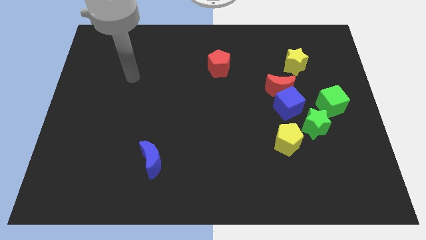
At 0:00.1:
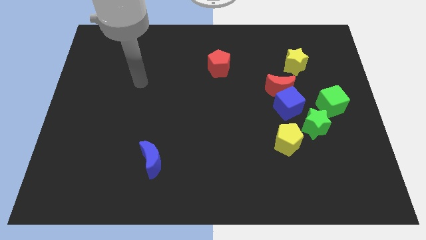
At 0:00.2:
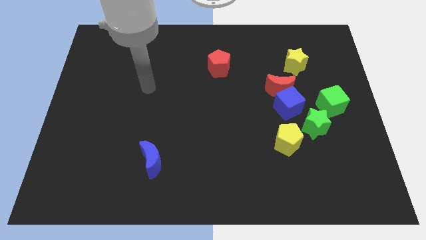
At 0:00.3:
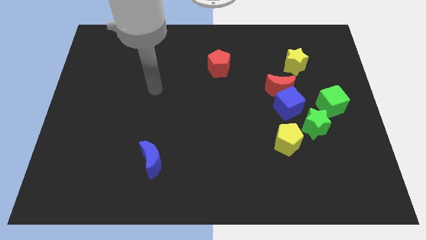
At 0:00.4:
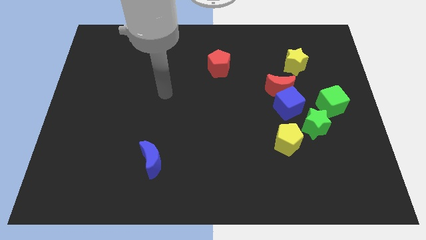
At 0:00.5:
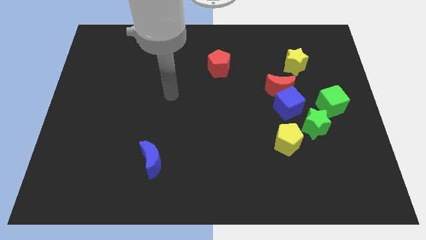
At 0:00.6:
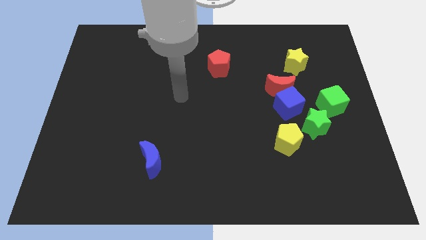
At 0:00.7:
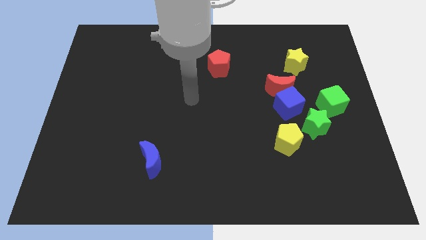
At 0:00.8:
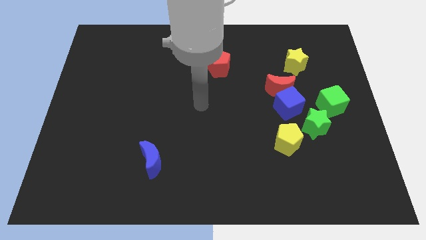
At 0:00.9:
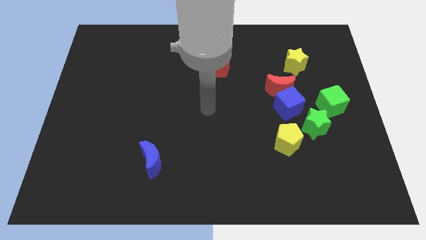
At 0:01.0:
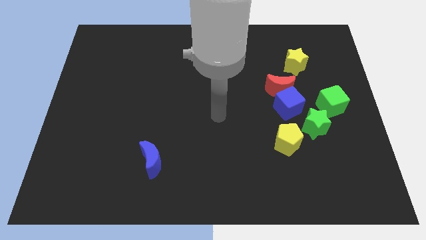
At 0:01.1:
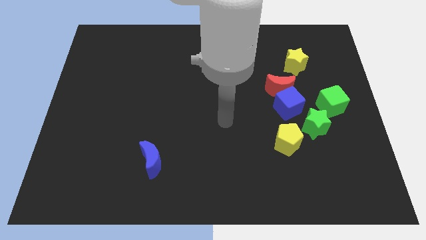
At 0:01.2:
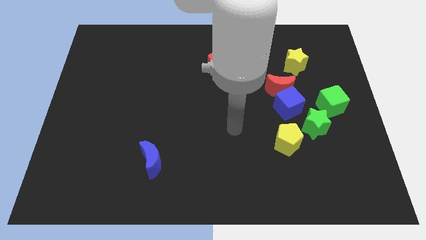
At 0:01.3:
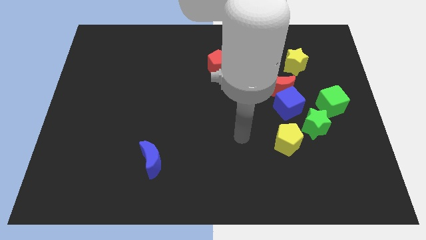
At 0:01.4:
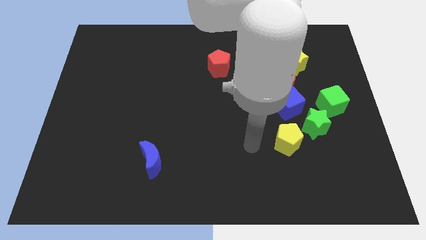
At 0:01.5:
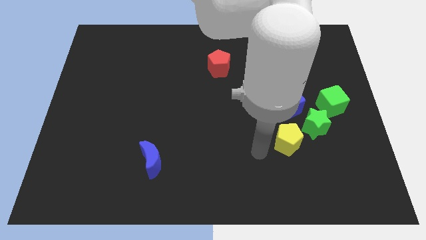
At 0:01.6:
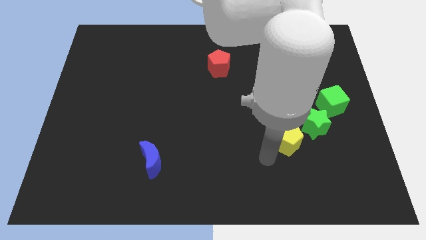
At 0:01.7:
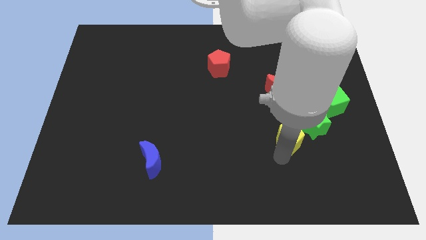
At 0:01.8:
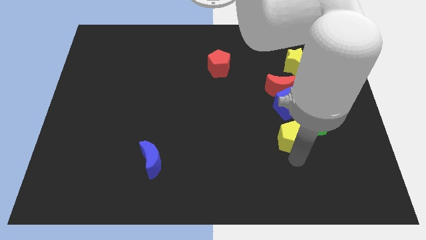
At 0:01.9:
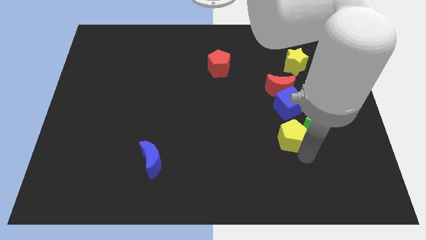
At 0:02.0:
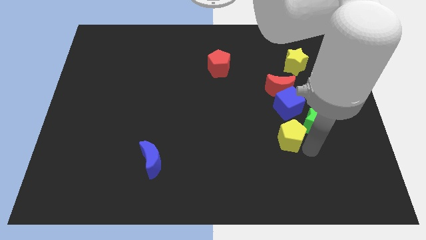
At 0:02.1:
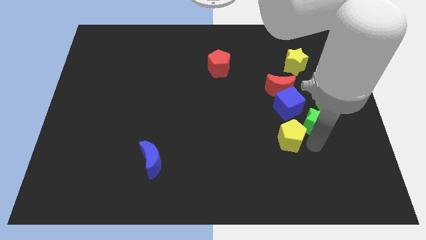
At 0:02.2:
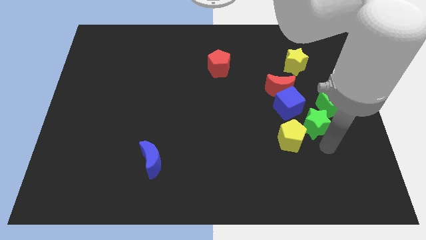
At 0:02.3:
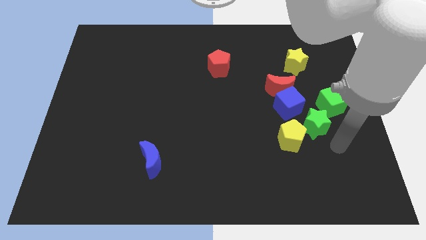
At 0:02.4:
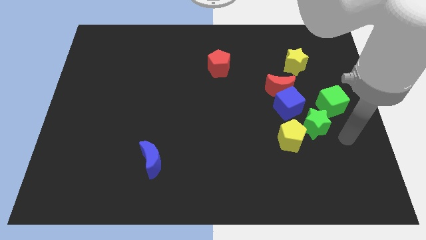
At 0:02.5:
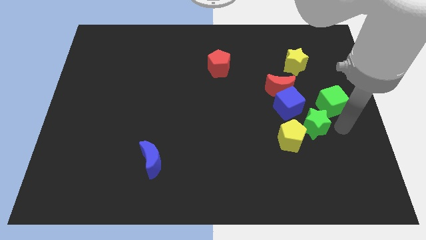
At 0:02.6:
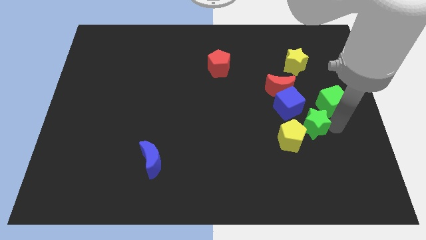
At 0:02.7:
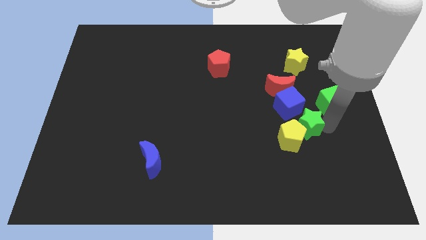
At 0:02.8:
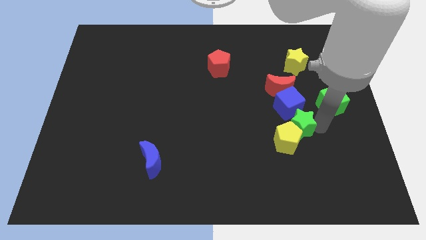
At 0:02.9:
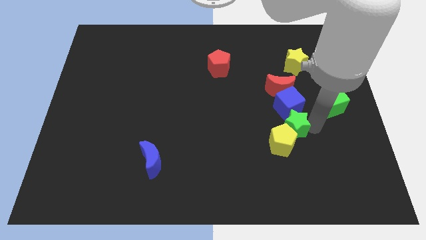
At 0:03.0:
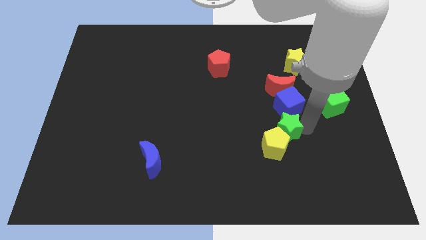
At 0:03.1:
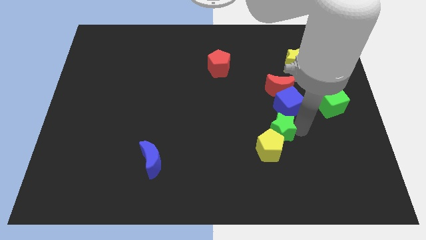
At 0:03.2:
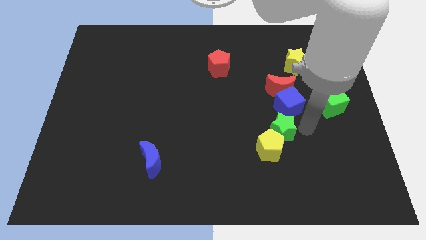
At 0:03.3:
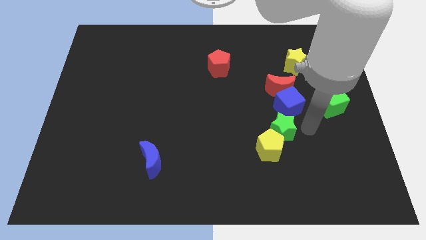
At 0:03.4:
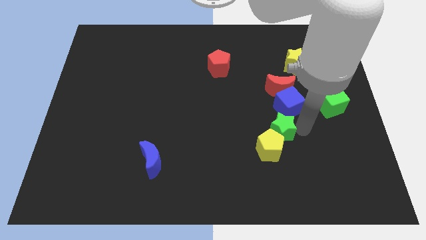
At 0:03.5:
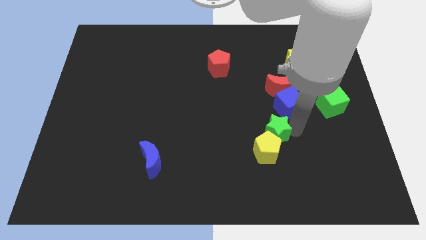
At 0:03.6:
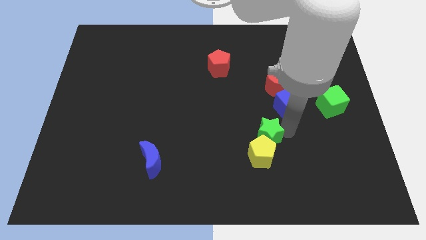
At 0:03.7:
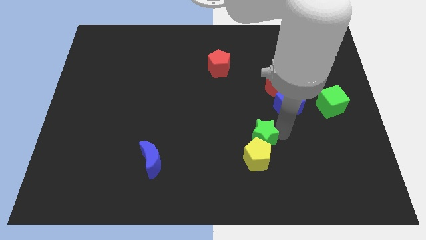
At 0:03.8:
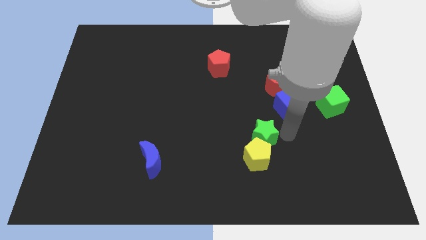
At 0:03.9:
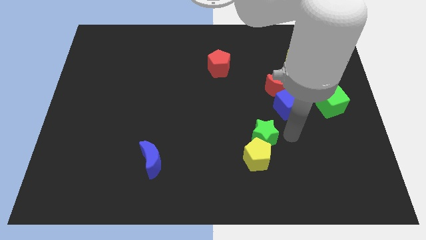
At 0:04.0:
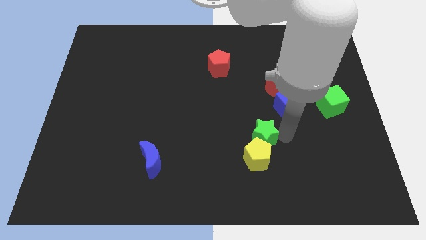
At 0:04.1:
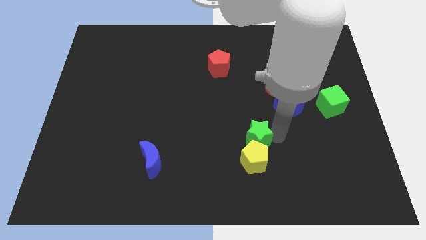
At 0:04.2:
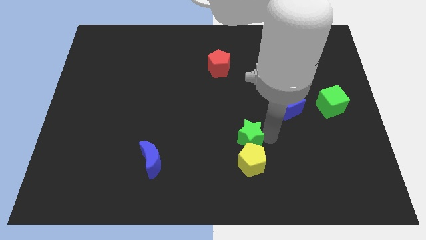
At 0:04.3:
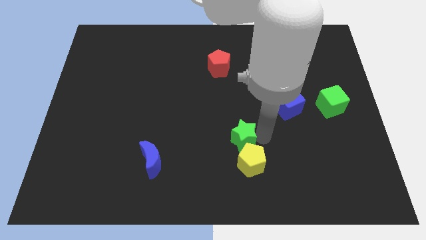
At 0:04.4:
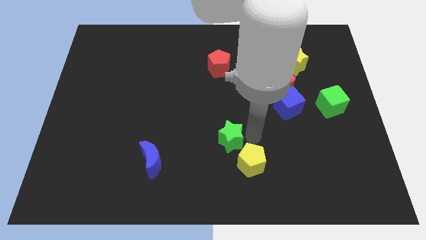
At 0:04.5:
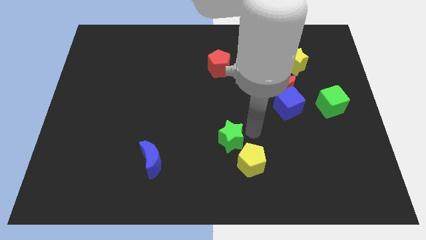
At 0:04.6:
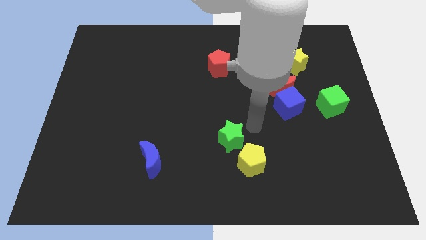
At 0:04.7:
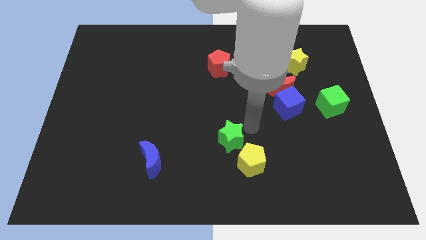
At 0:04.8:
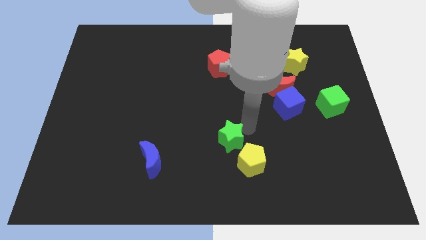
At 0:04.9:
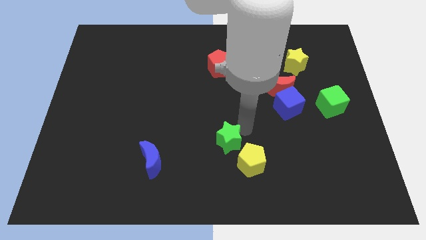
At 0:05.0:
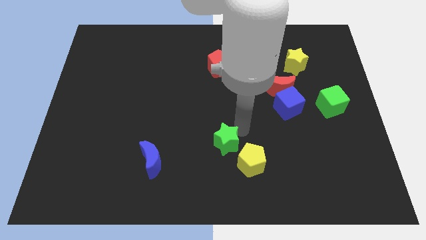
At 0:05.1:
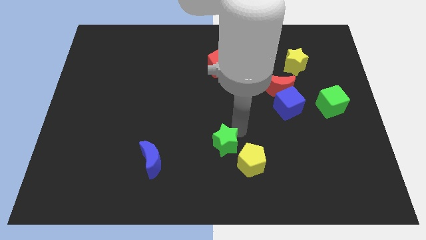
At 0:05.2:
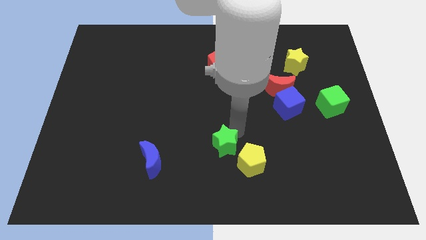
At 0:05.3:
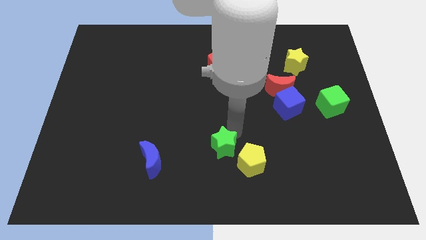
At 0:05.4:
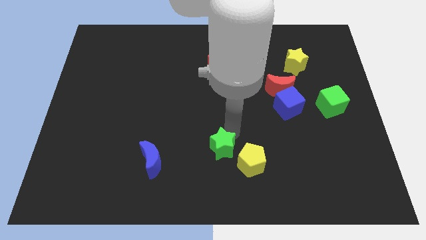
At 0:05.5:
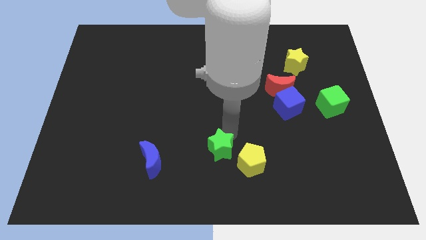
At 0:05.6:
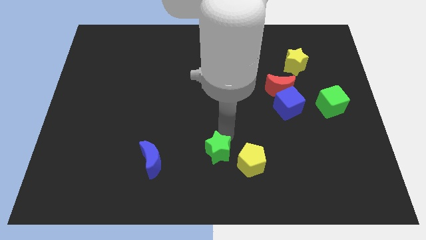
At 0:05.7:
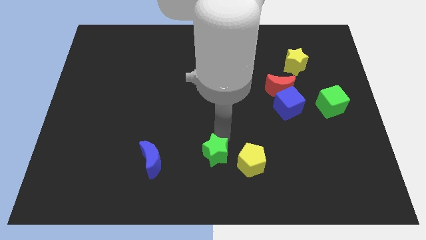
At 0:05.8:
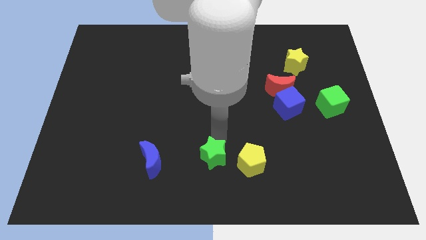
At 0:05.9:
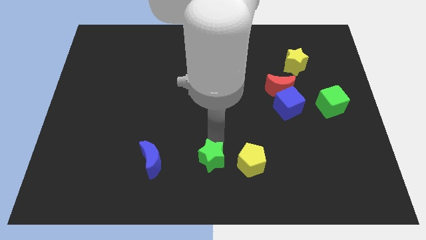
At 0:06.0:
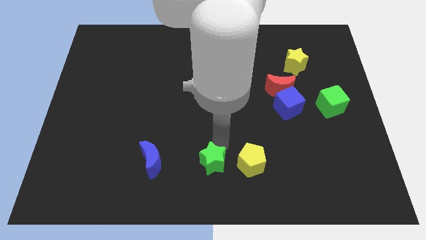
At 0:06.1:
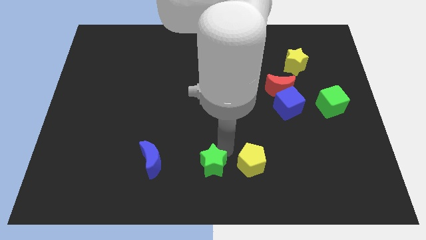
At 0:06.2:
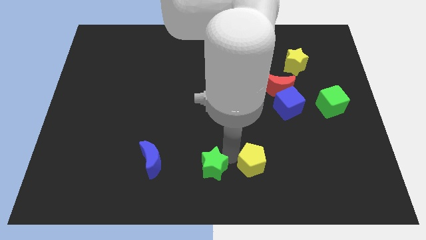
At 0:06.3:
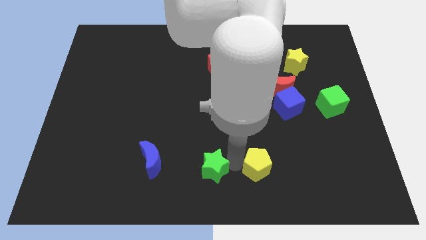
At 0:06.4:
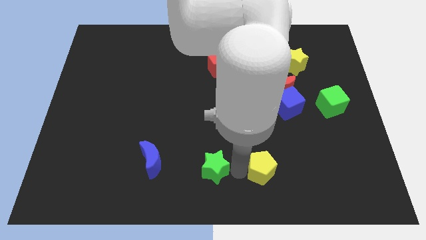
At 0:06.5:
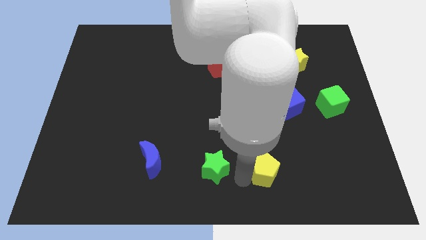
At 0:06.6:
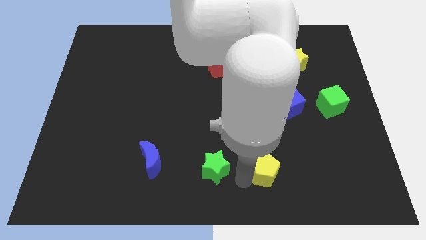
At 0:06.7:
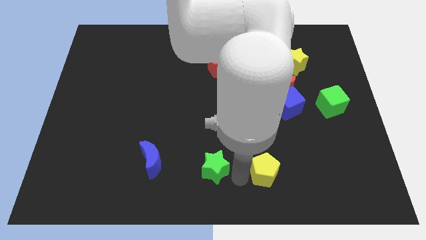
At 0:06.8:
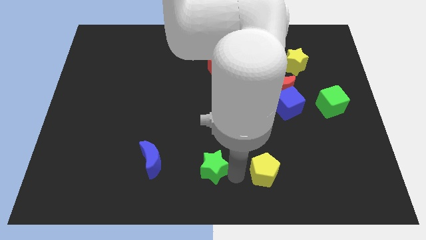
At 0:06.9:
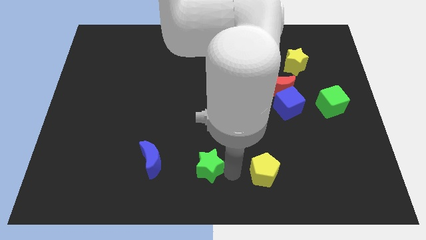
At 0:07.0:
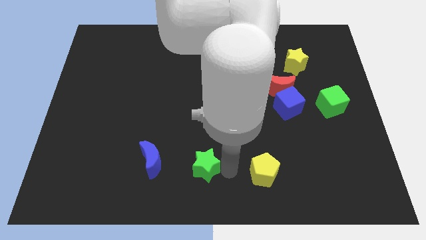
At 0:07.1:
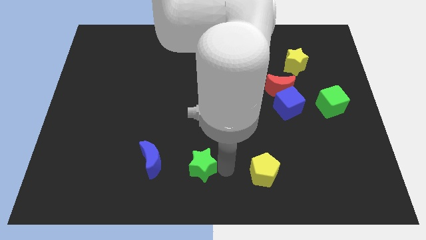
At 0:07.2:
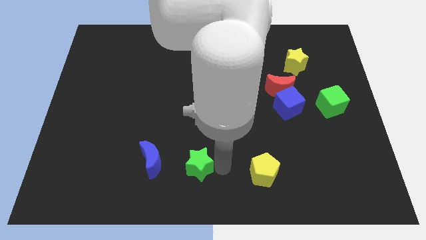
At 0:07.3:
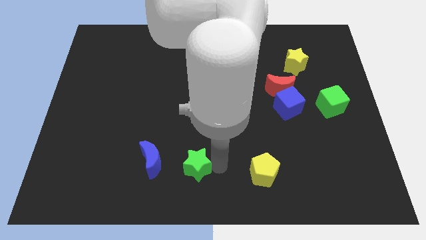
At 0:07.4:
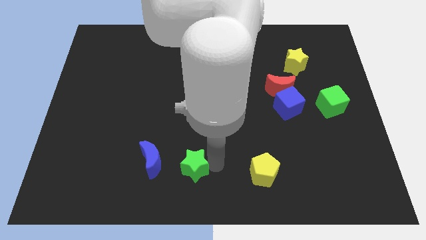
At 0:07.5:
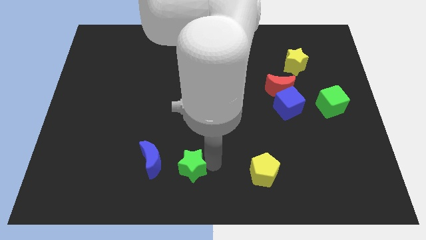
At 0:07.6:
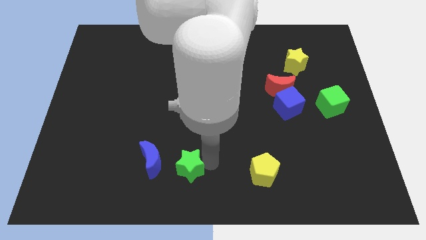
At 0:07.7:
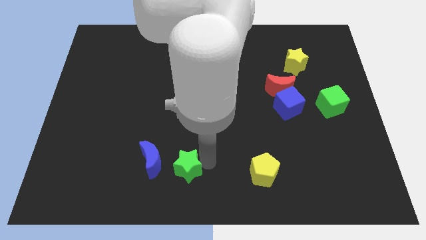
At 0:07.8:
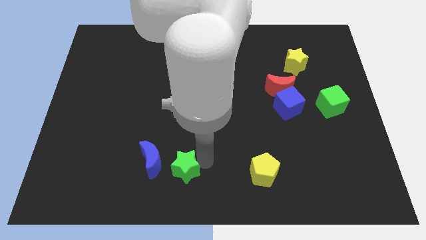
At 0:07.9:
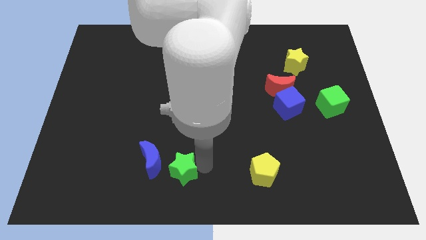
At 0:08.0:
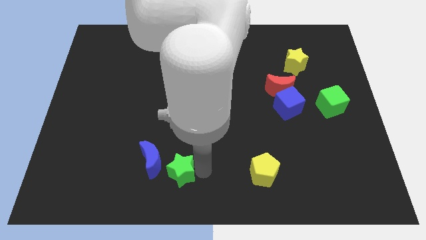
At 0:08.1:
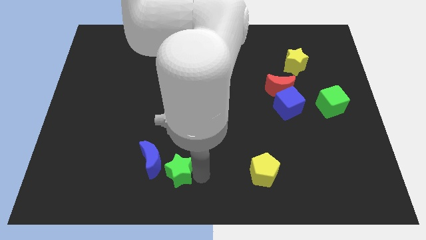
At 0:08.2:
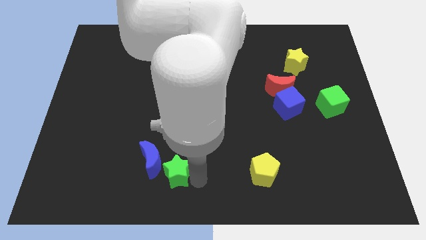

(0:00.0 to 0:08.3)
put the green star close to the blue moon

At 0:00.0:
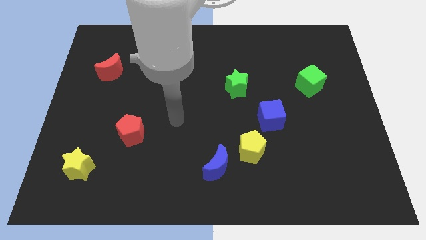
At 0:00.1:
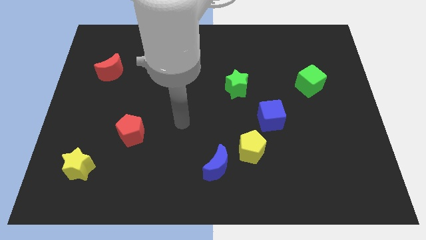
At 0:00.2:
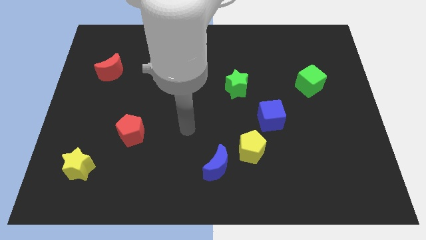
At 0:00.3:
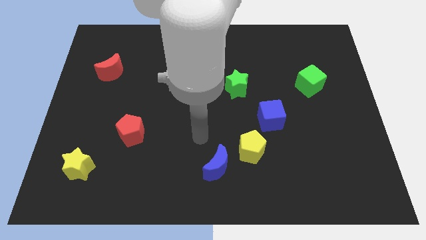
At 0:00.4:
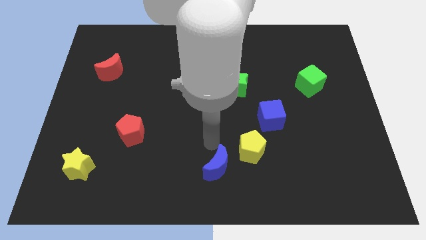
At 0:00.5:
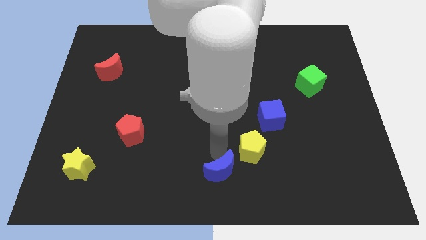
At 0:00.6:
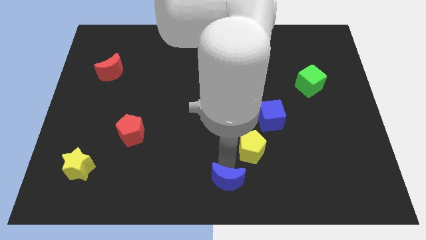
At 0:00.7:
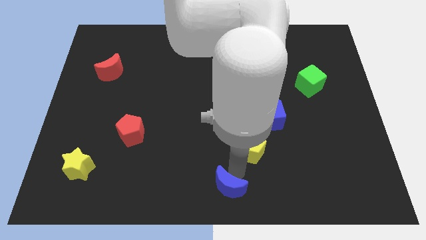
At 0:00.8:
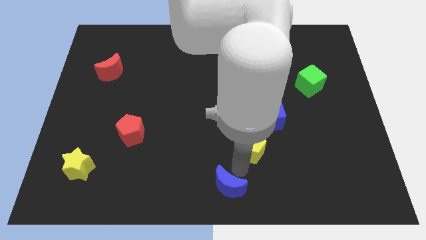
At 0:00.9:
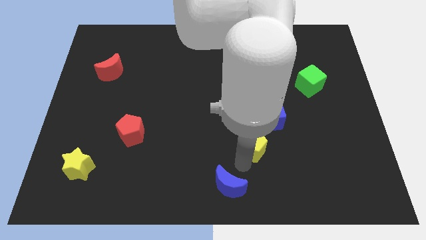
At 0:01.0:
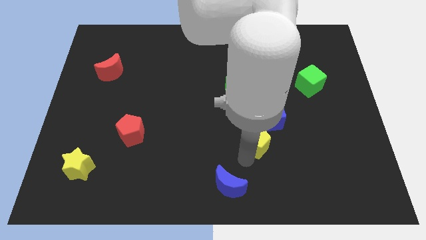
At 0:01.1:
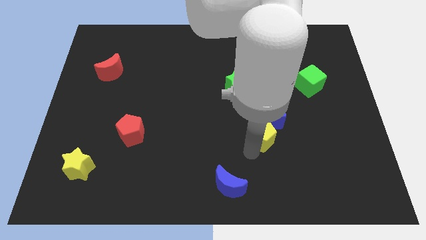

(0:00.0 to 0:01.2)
put the yellow pentagon towards the blue cube
